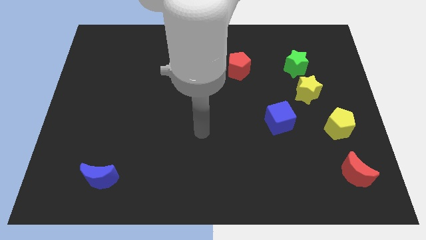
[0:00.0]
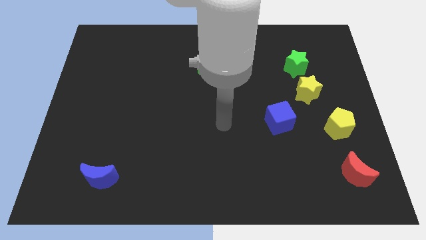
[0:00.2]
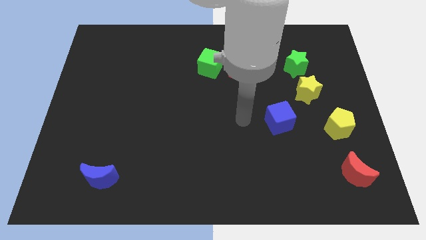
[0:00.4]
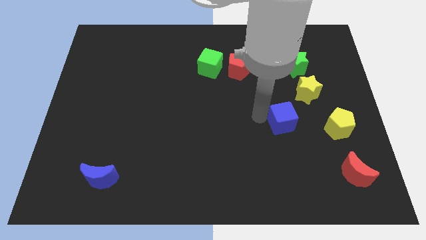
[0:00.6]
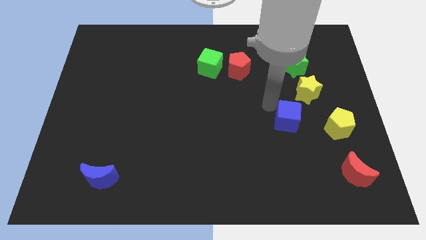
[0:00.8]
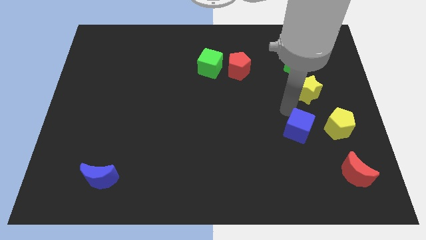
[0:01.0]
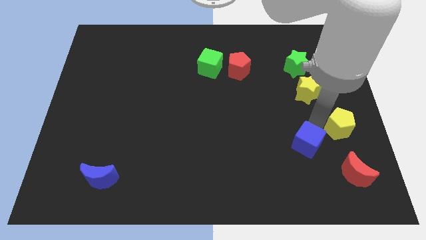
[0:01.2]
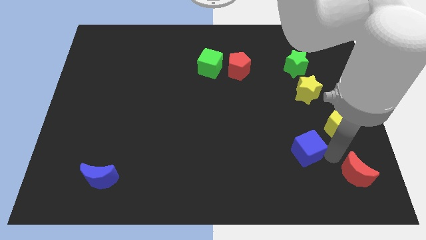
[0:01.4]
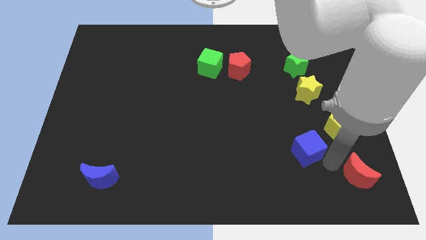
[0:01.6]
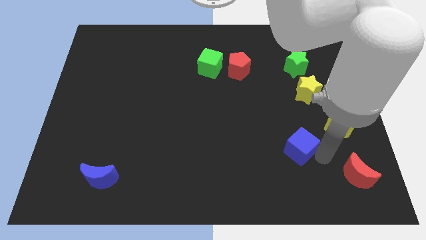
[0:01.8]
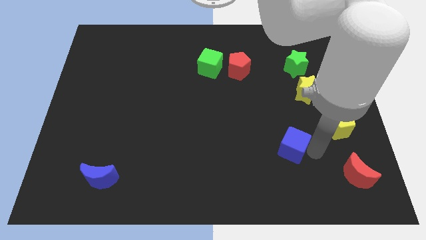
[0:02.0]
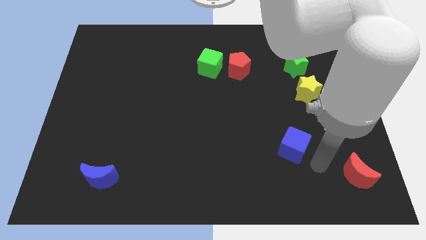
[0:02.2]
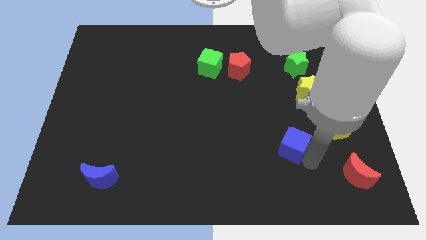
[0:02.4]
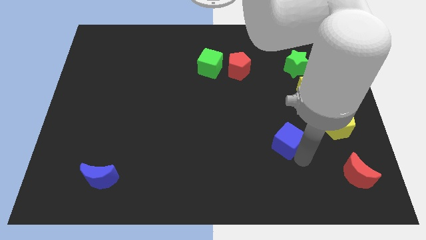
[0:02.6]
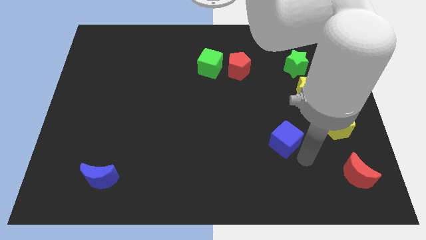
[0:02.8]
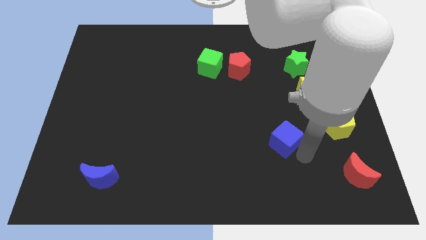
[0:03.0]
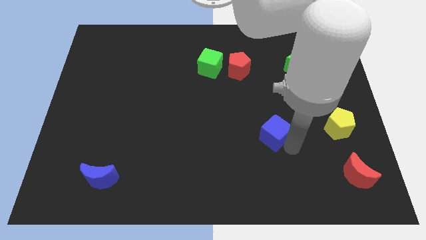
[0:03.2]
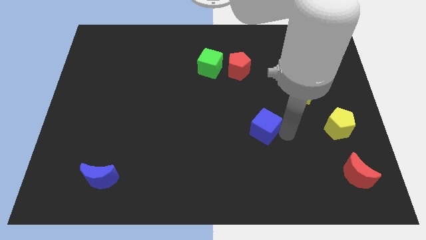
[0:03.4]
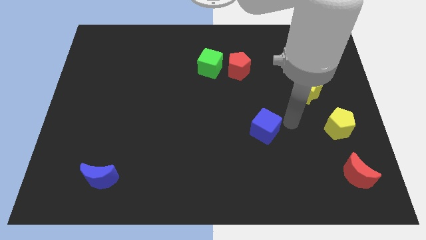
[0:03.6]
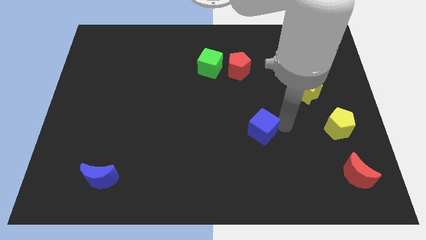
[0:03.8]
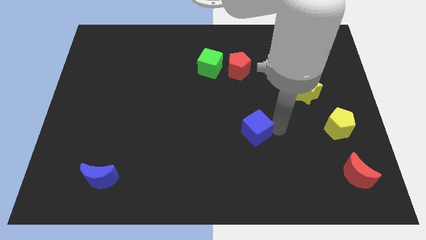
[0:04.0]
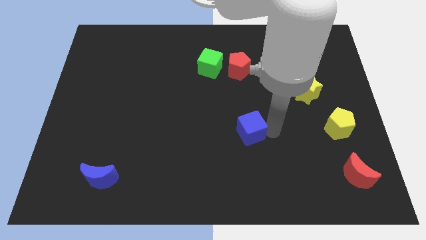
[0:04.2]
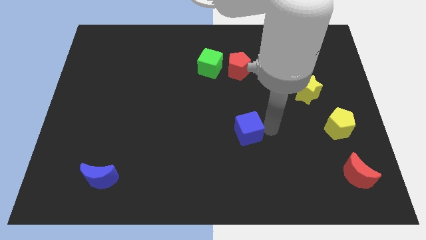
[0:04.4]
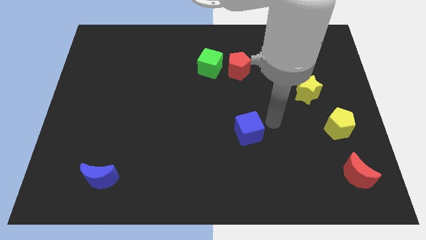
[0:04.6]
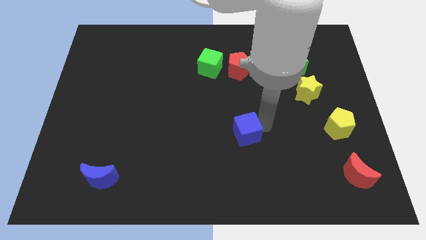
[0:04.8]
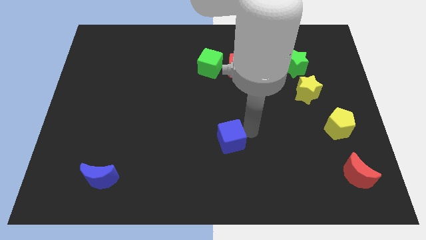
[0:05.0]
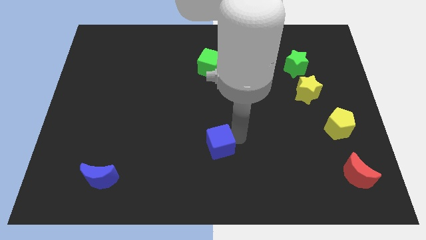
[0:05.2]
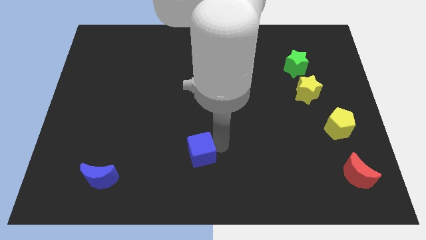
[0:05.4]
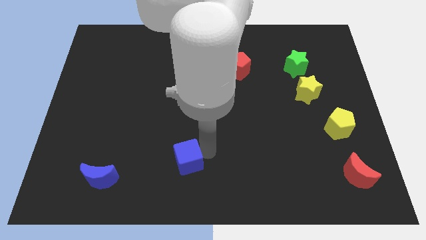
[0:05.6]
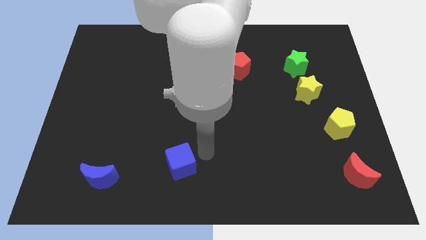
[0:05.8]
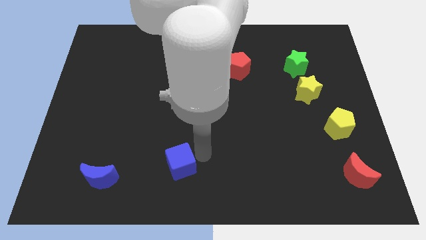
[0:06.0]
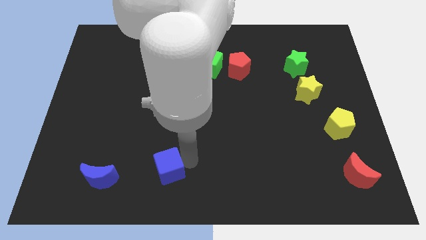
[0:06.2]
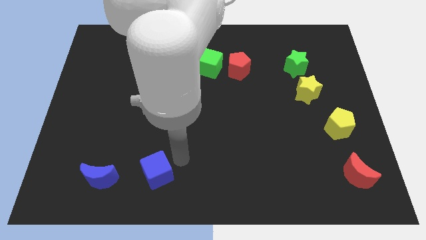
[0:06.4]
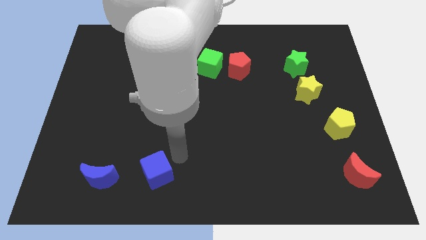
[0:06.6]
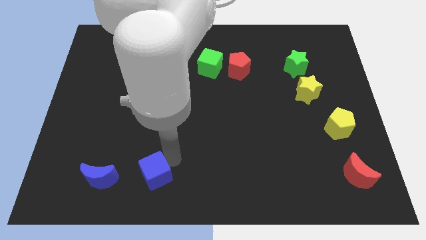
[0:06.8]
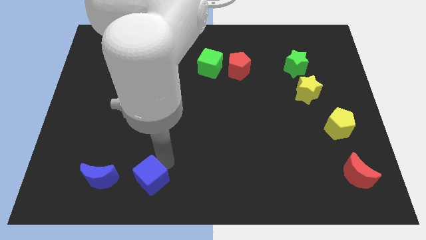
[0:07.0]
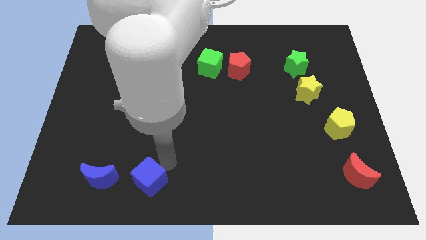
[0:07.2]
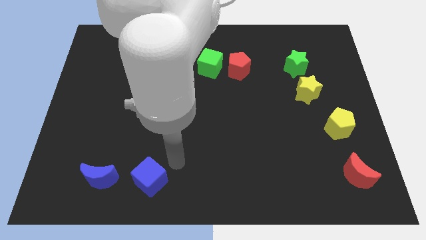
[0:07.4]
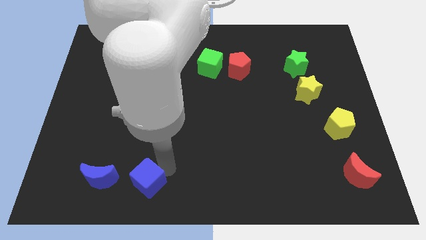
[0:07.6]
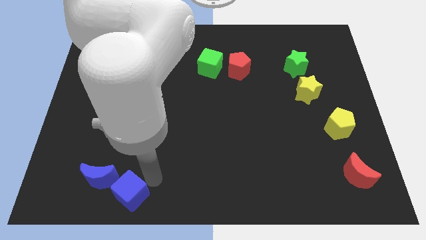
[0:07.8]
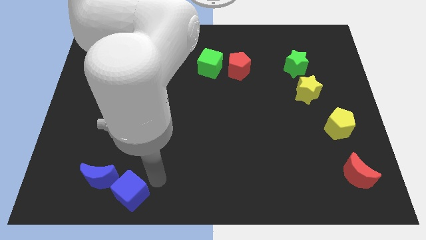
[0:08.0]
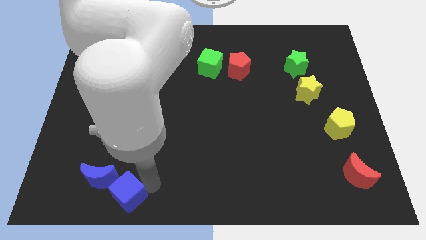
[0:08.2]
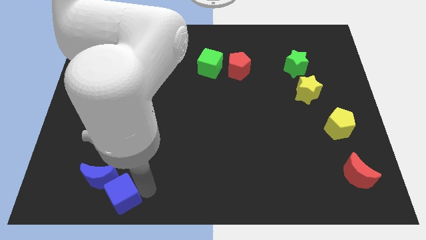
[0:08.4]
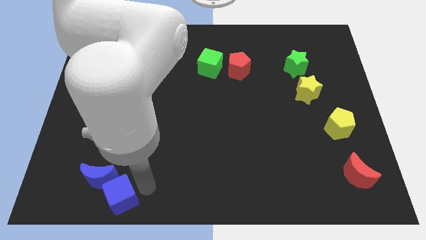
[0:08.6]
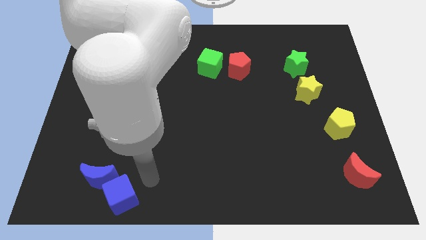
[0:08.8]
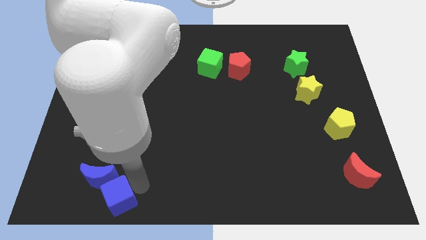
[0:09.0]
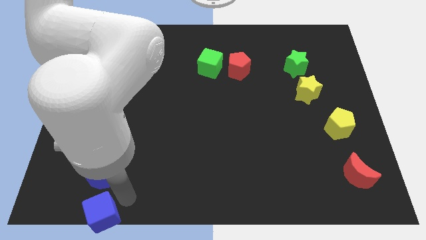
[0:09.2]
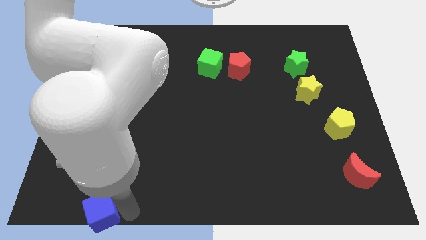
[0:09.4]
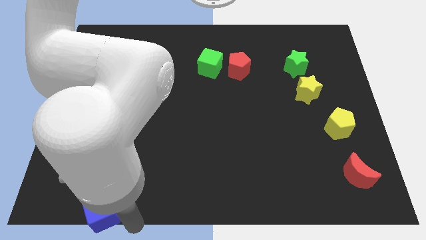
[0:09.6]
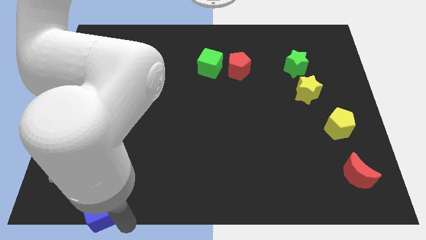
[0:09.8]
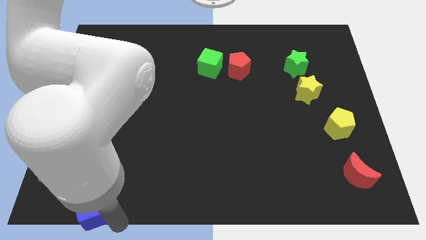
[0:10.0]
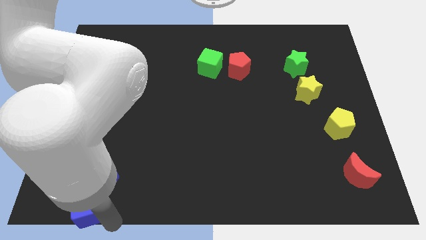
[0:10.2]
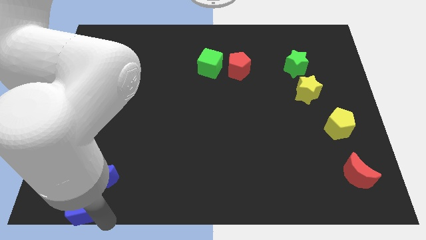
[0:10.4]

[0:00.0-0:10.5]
push the blue cube to the bottom left corner
